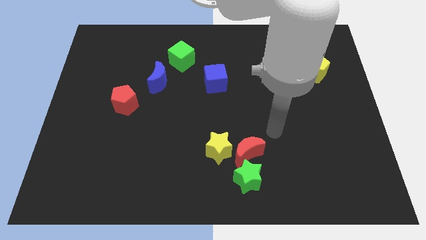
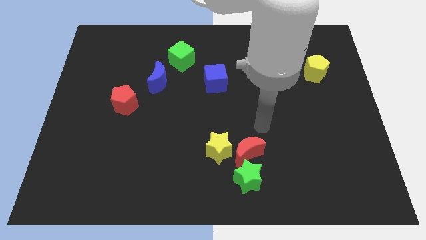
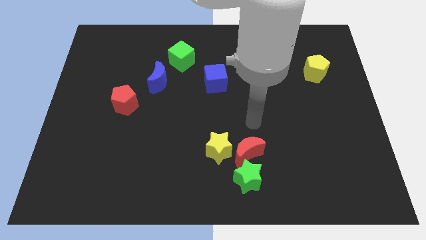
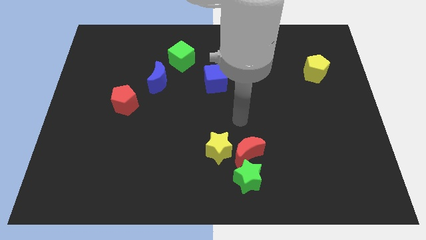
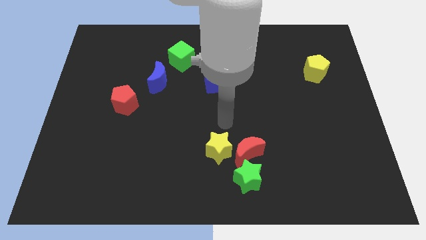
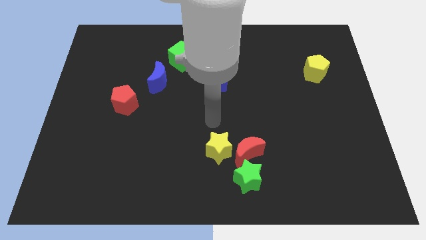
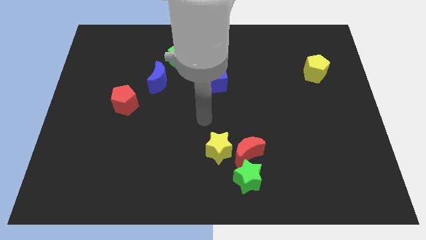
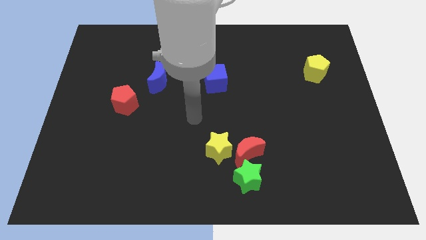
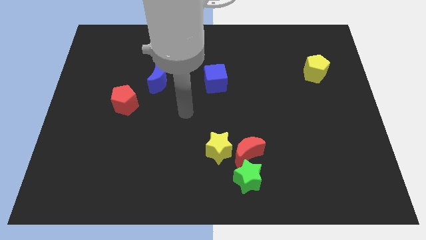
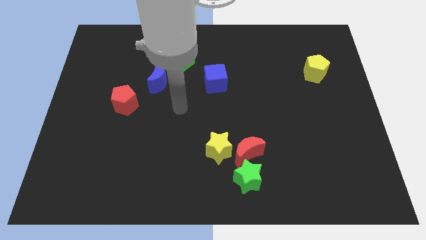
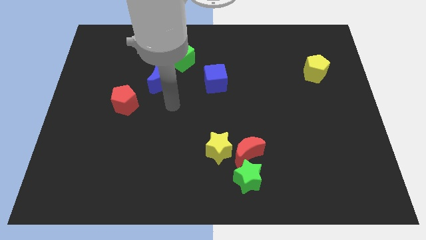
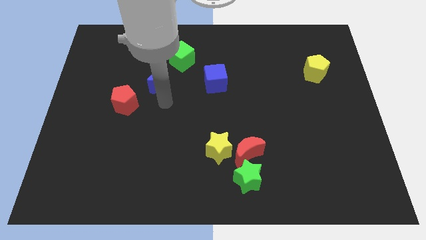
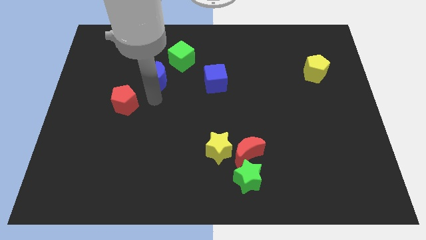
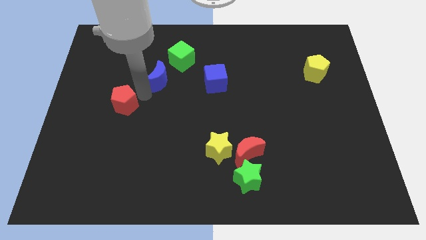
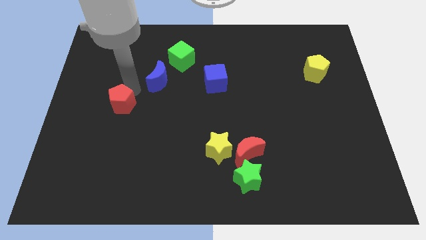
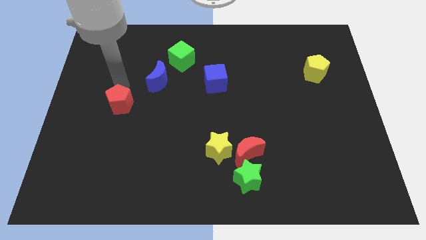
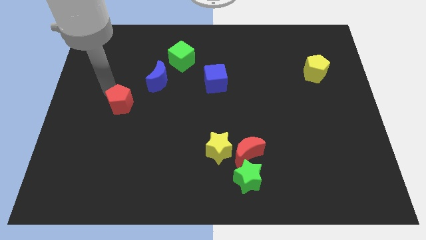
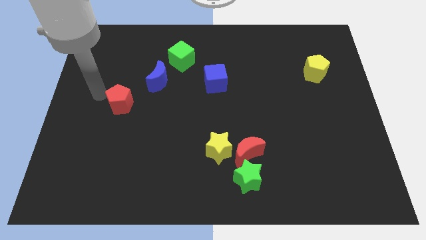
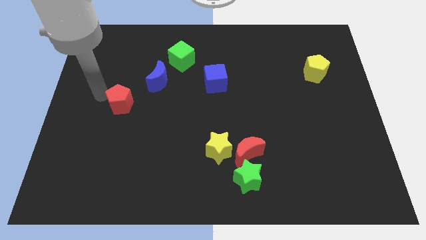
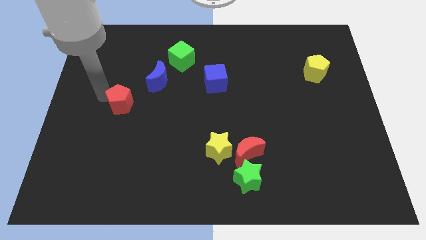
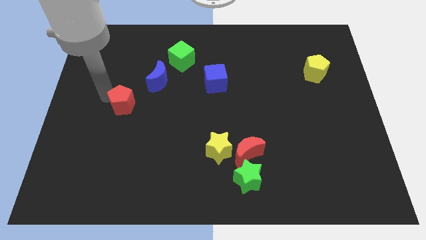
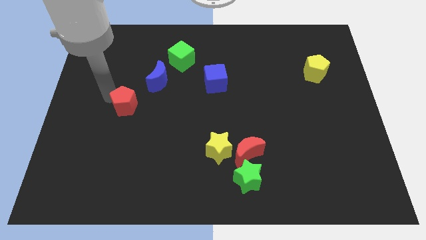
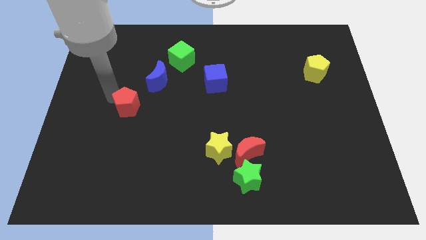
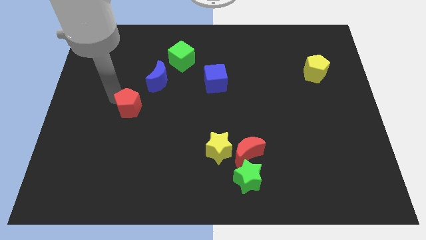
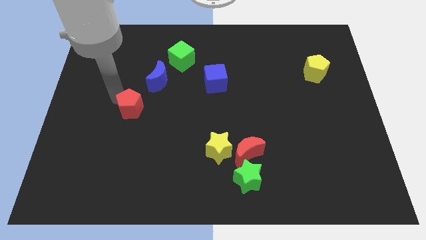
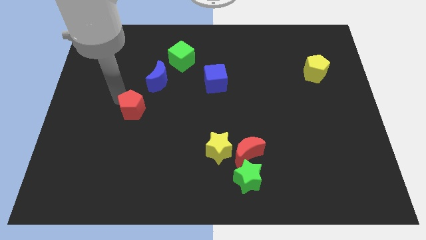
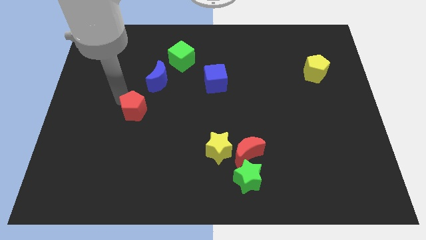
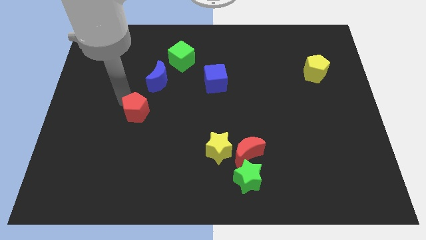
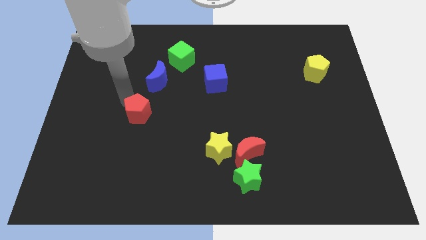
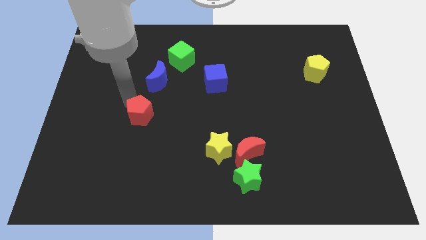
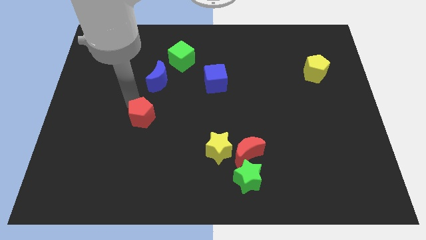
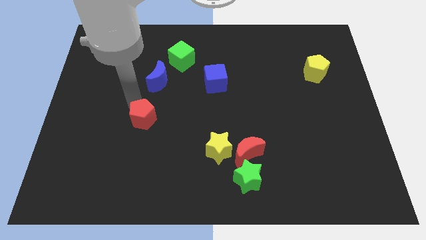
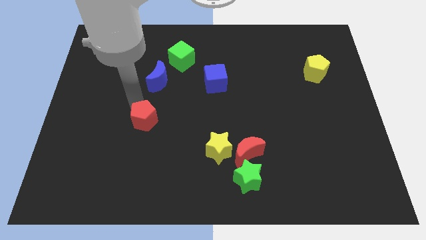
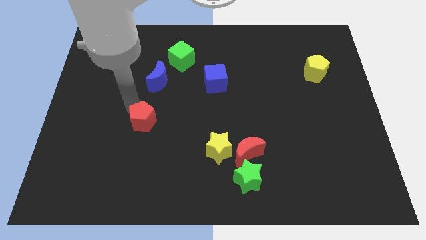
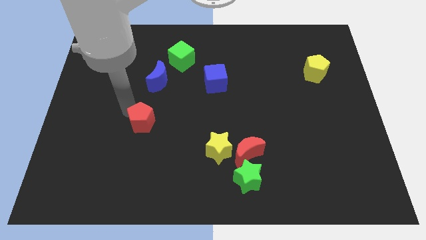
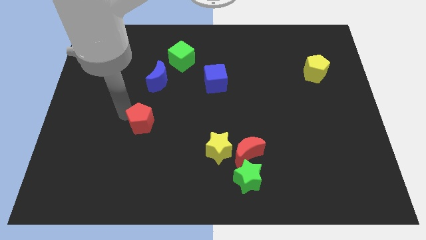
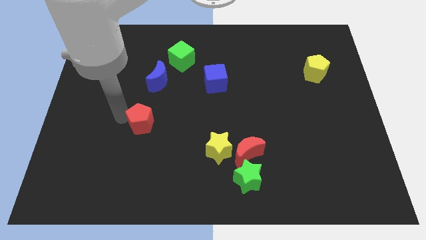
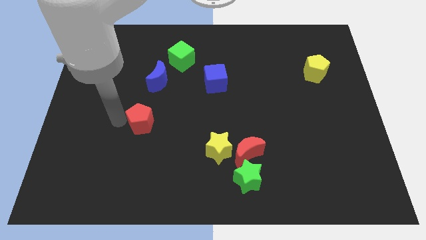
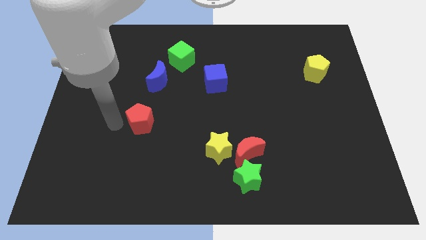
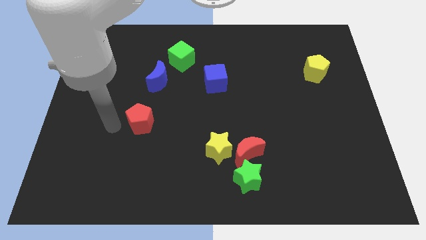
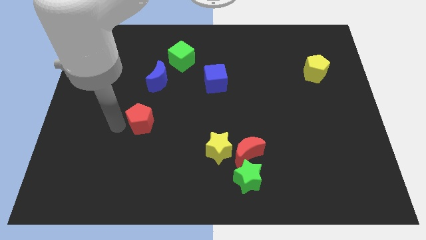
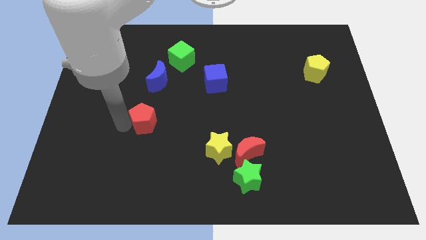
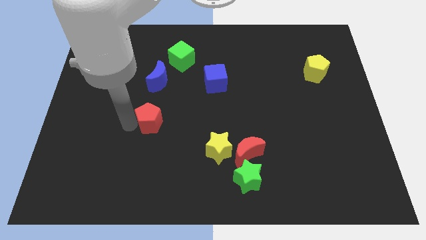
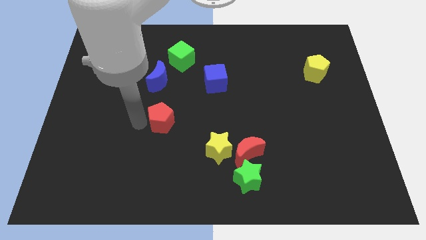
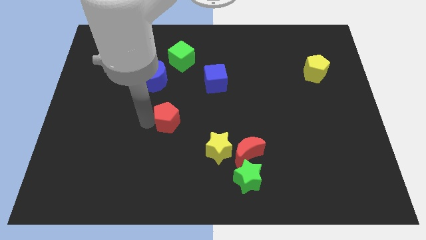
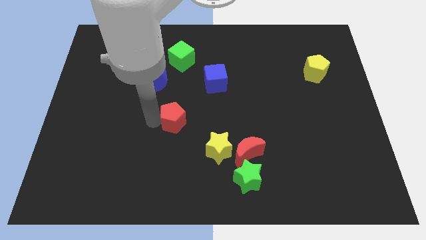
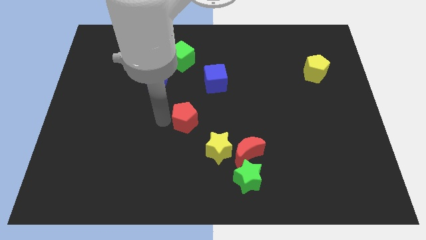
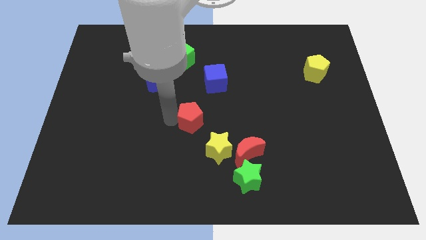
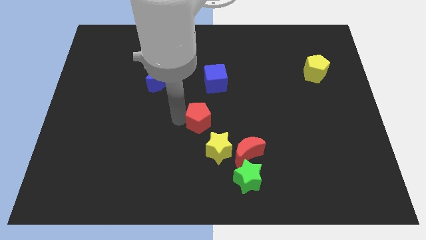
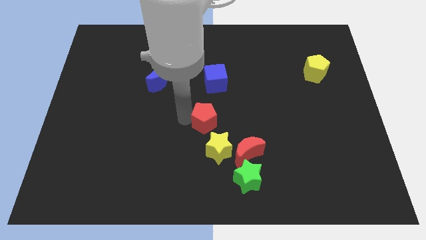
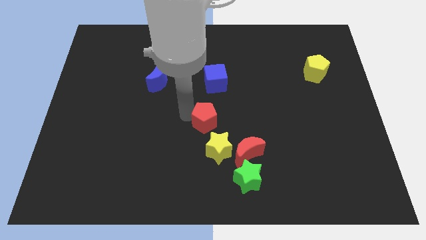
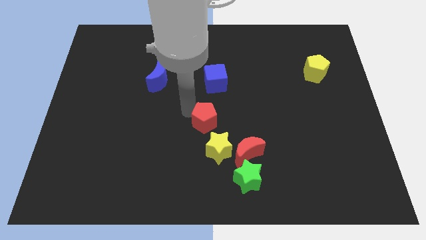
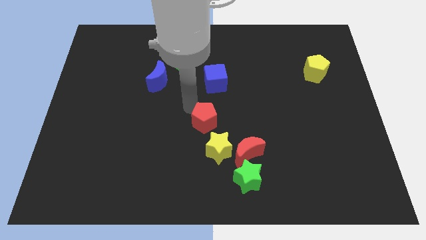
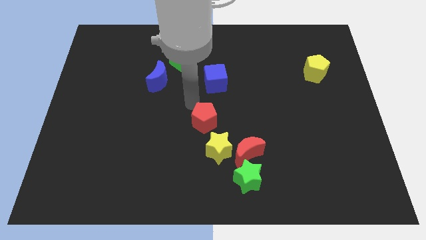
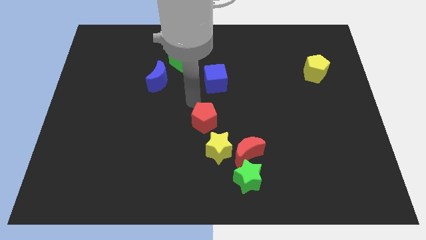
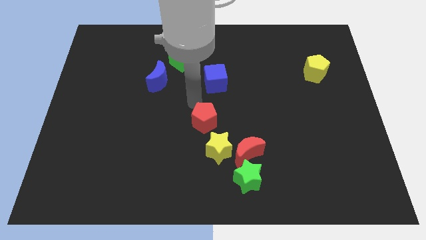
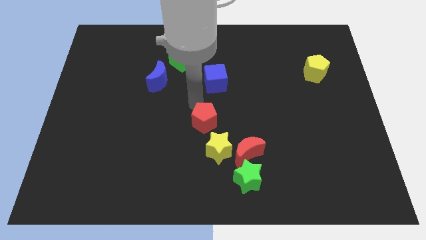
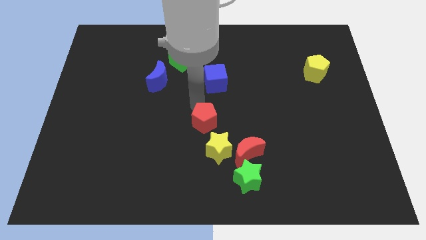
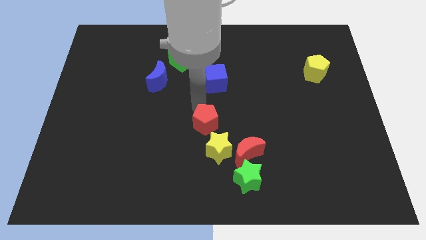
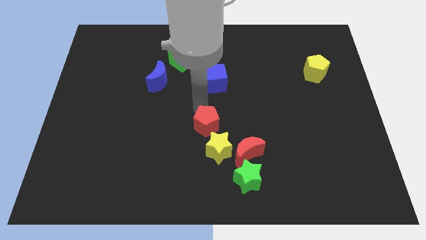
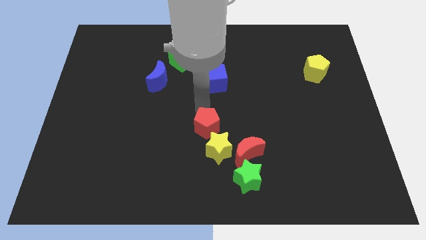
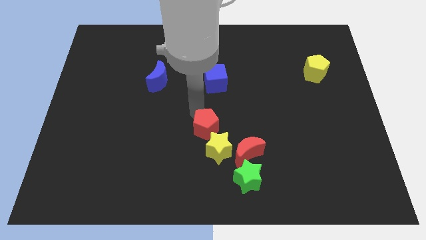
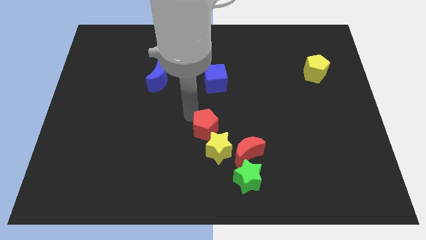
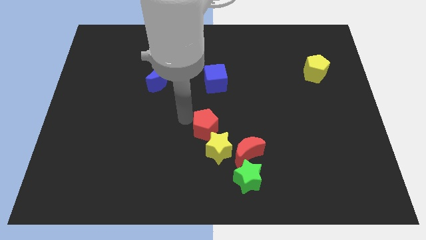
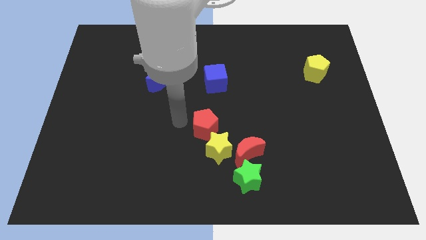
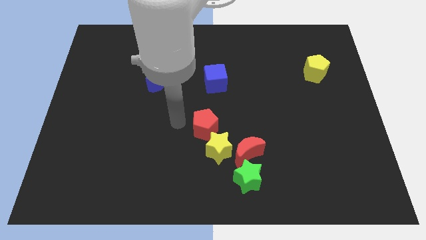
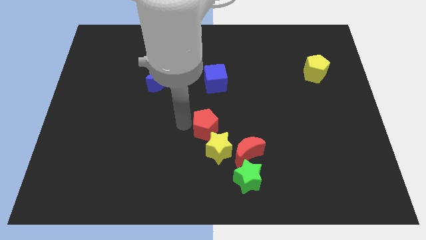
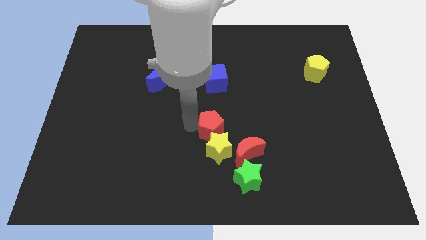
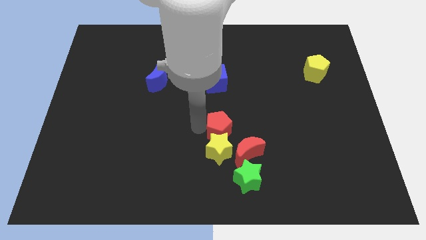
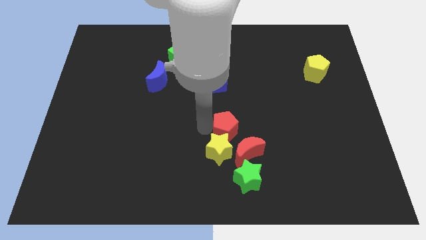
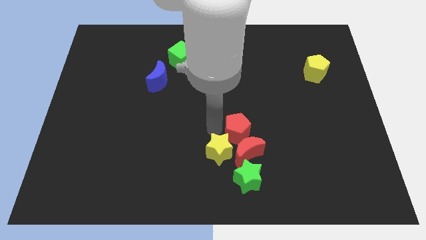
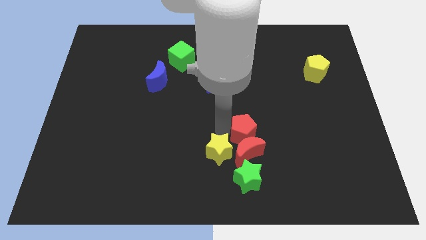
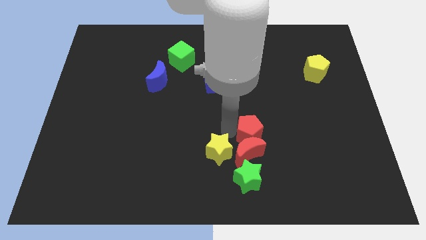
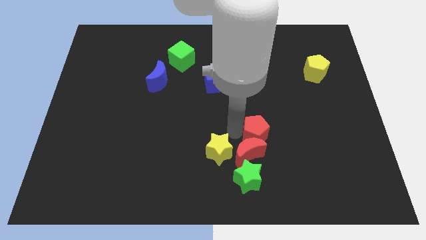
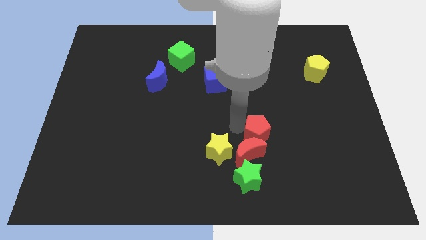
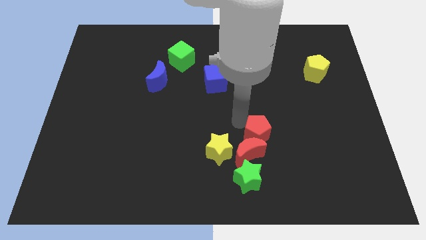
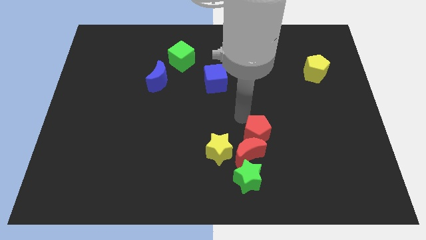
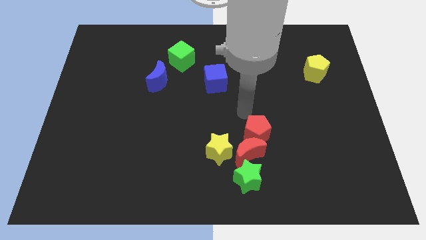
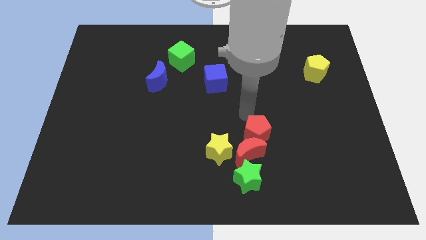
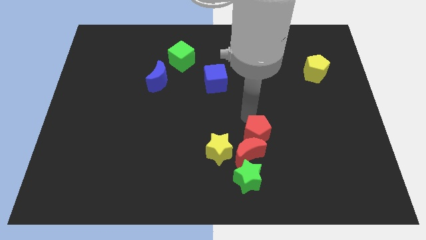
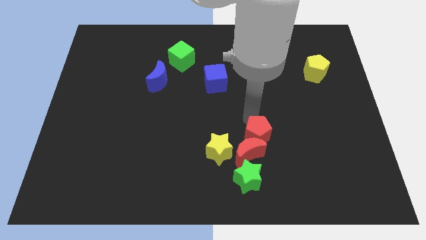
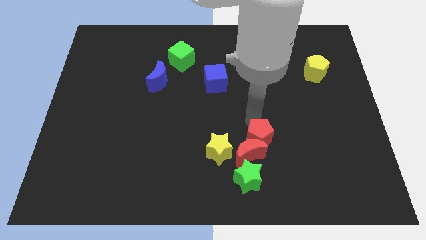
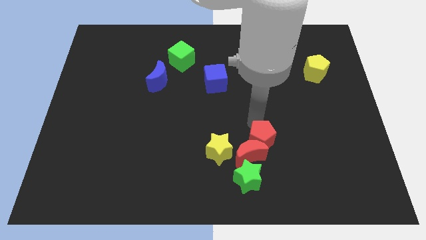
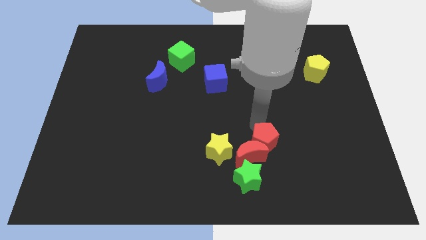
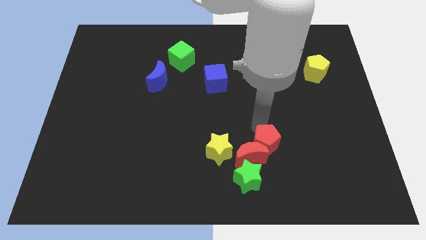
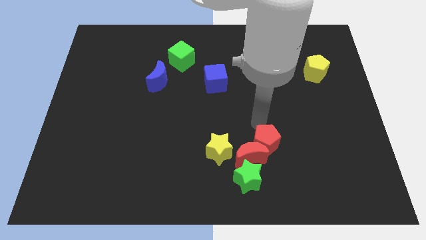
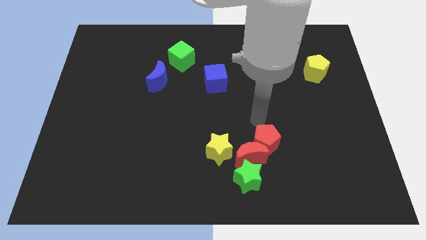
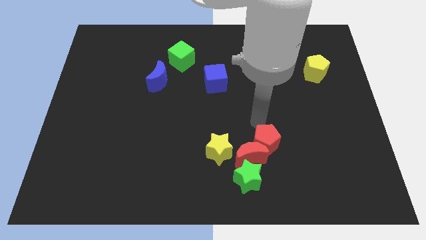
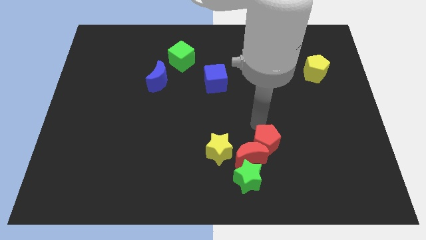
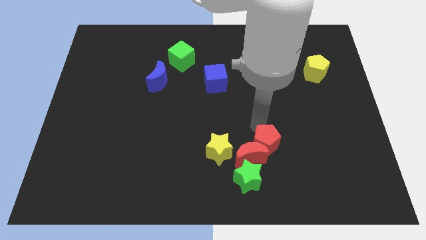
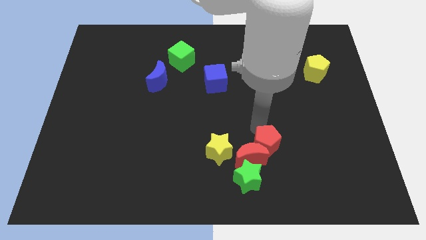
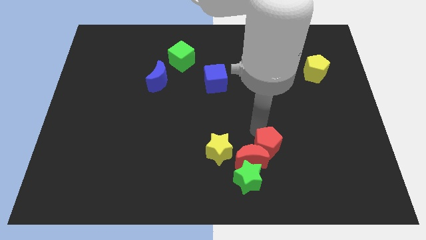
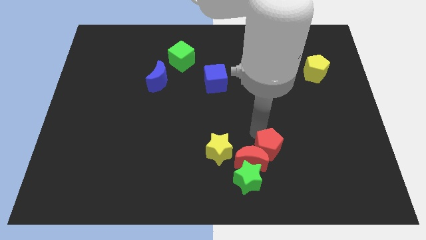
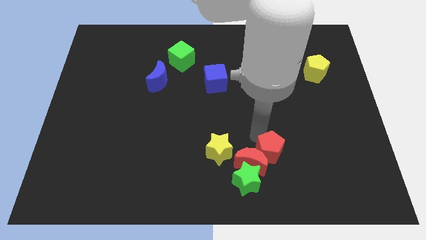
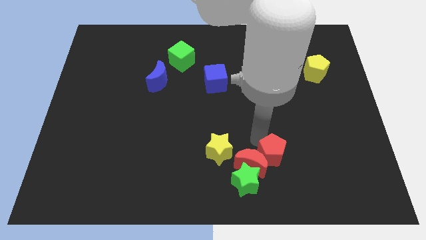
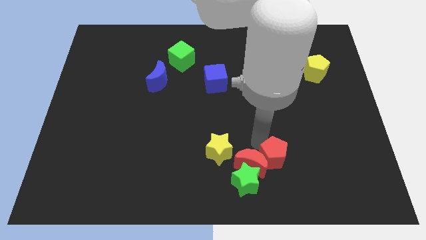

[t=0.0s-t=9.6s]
push the red pentagon to the bottom right of the red moon
